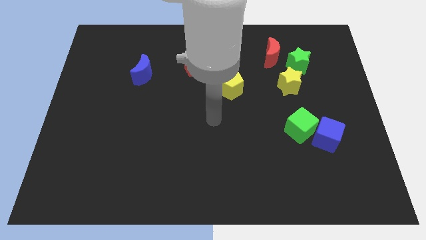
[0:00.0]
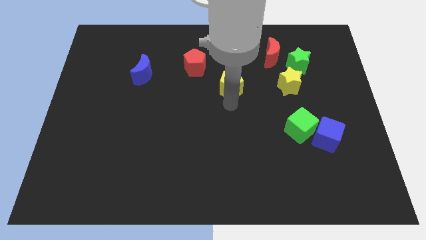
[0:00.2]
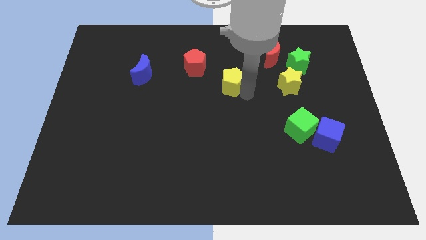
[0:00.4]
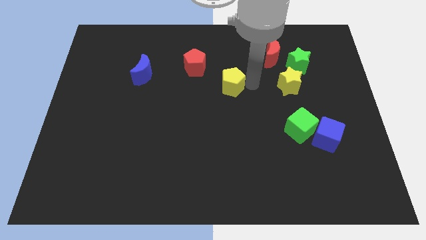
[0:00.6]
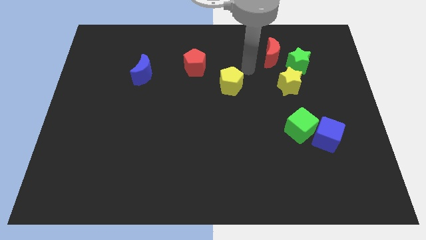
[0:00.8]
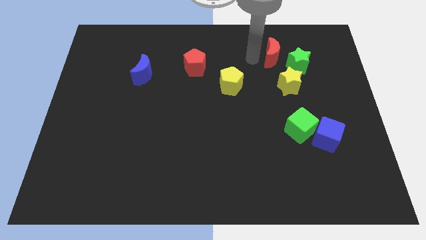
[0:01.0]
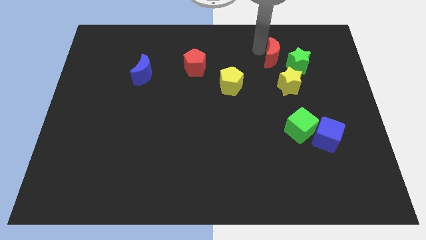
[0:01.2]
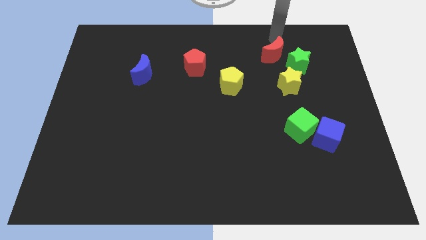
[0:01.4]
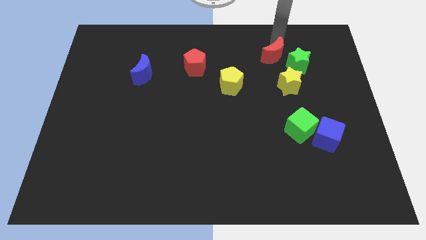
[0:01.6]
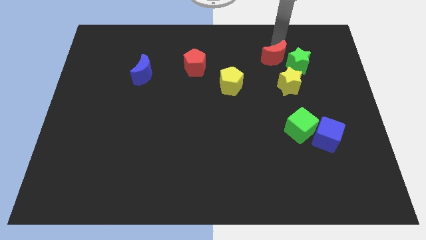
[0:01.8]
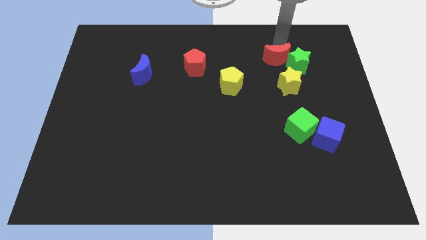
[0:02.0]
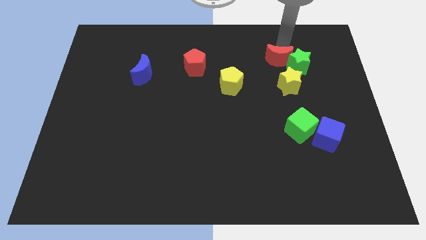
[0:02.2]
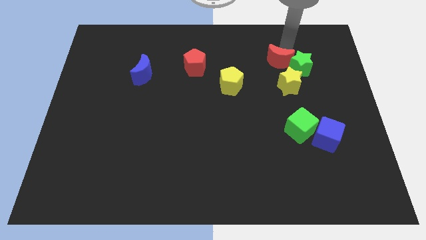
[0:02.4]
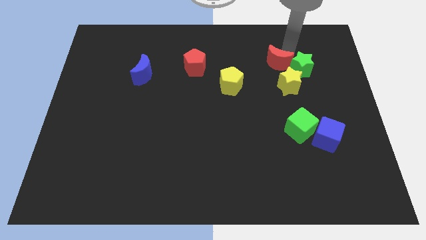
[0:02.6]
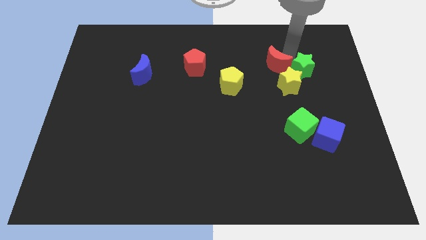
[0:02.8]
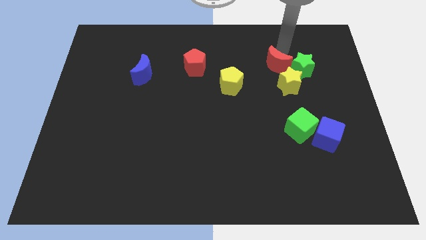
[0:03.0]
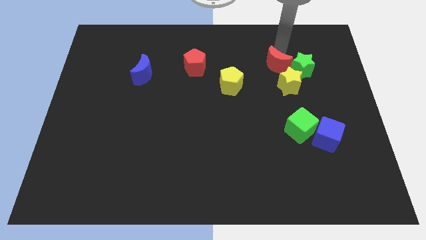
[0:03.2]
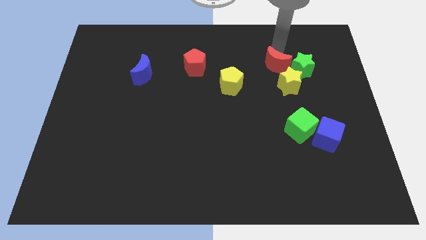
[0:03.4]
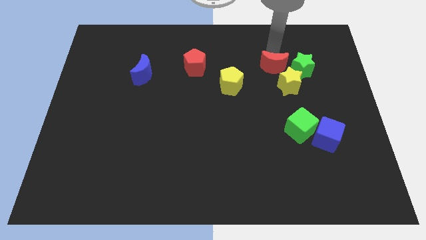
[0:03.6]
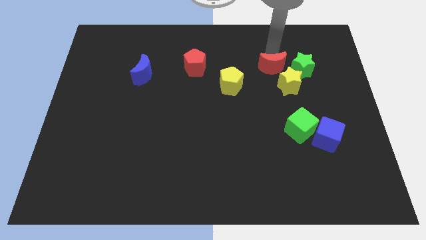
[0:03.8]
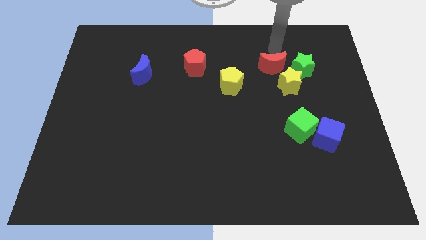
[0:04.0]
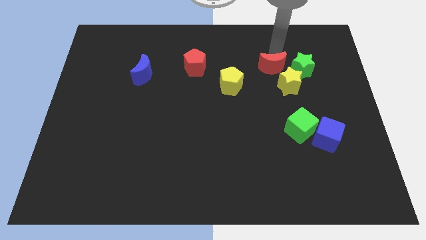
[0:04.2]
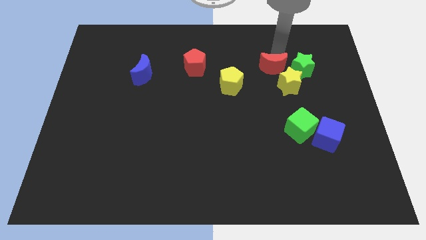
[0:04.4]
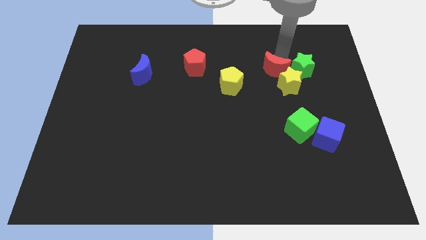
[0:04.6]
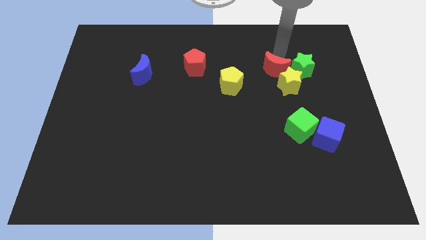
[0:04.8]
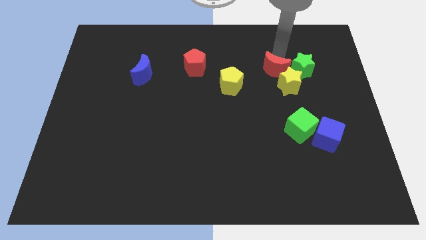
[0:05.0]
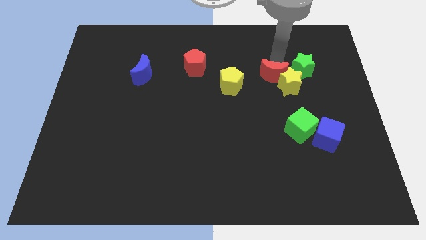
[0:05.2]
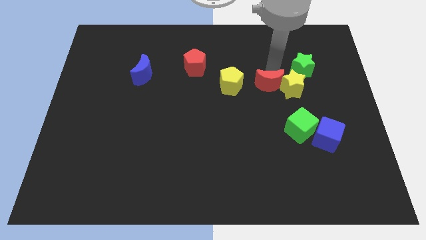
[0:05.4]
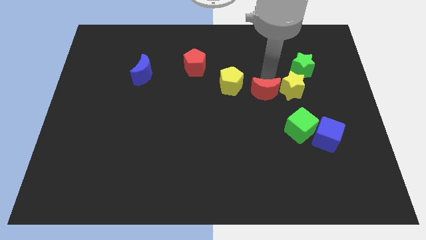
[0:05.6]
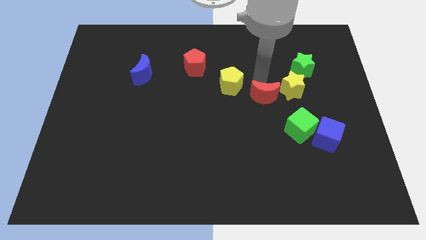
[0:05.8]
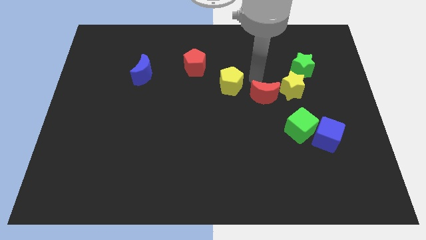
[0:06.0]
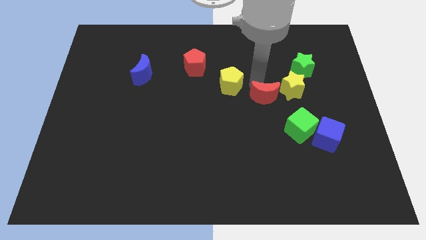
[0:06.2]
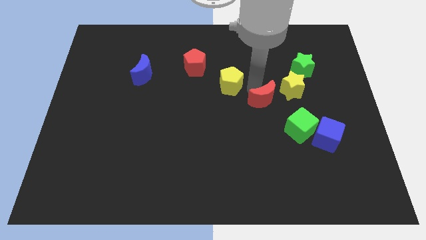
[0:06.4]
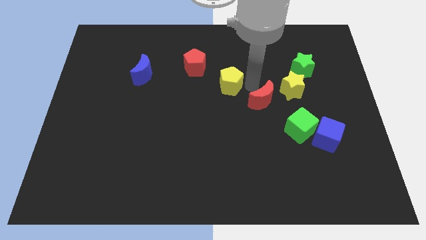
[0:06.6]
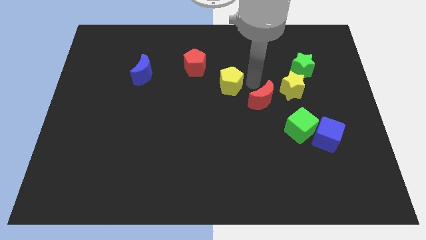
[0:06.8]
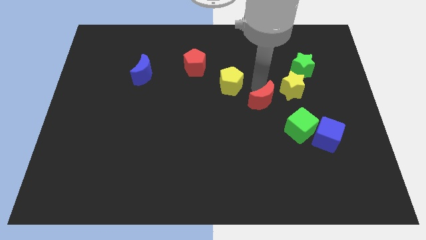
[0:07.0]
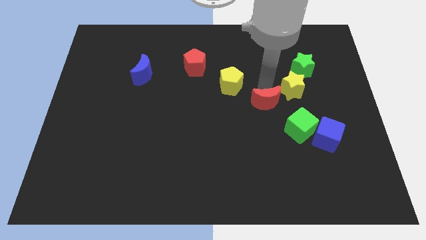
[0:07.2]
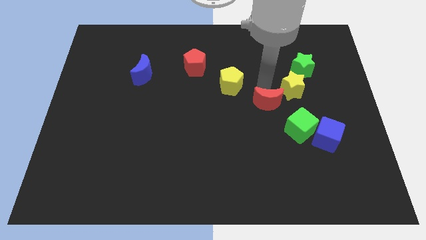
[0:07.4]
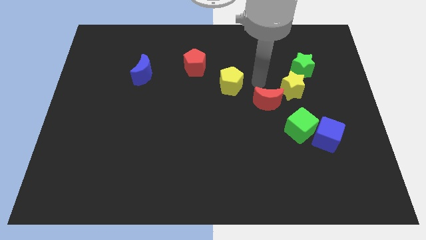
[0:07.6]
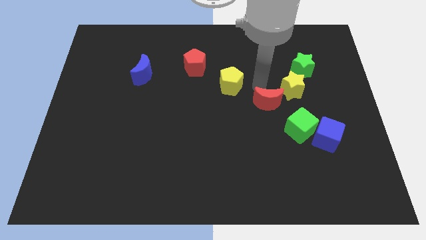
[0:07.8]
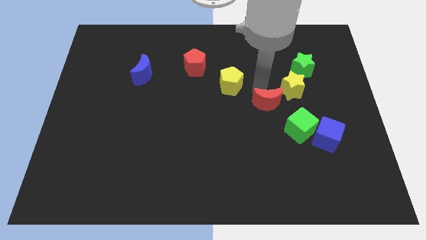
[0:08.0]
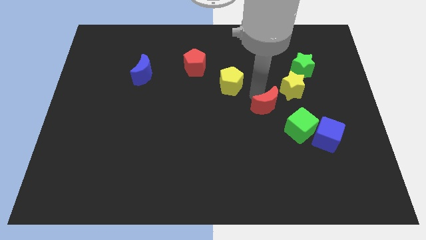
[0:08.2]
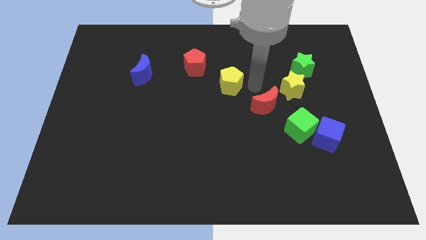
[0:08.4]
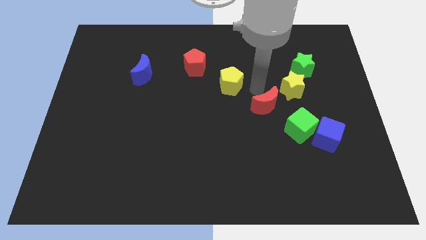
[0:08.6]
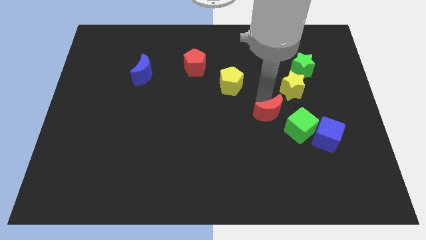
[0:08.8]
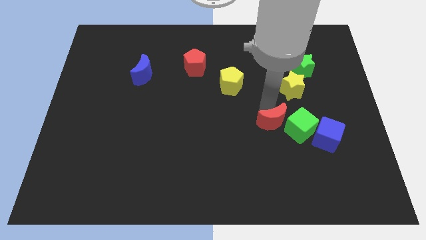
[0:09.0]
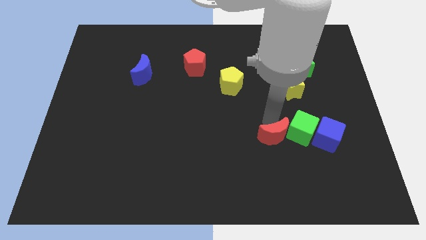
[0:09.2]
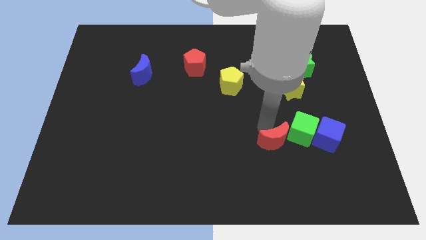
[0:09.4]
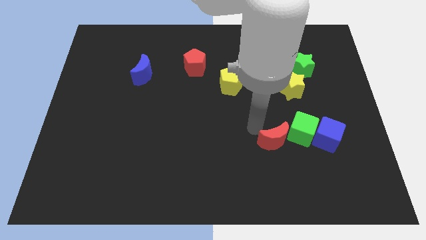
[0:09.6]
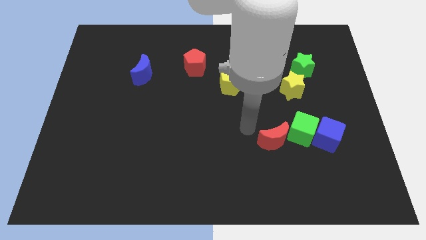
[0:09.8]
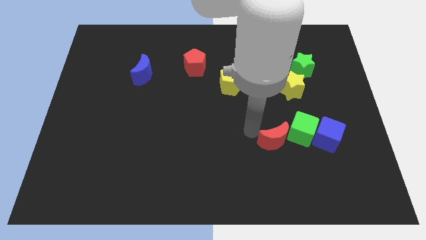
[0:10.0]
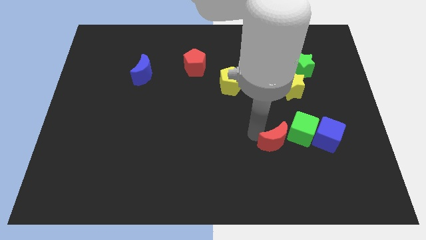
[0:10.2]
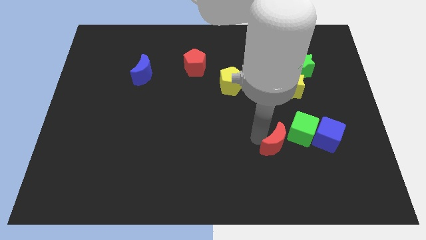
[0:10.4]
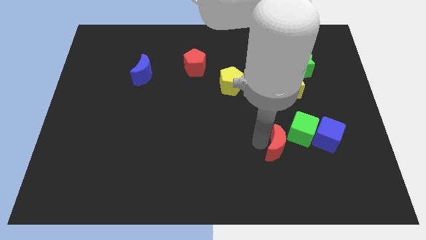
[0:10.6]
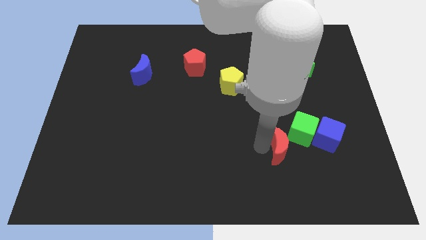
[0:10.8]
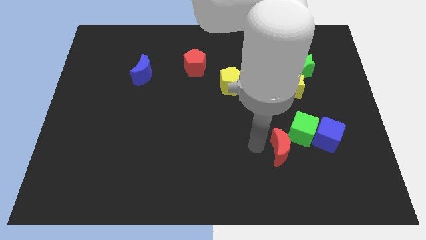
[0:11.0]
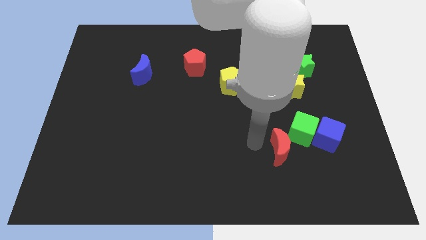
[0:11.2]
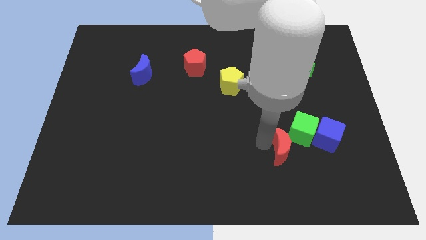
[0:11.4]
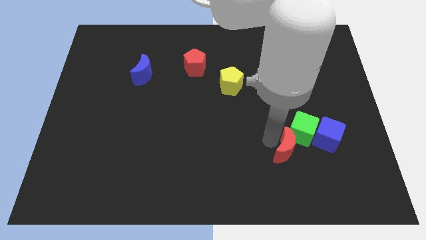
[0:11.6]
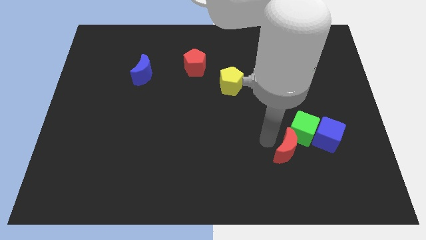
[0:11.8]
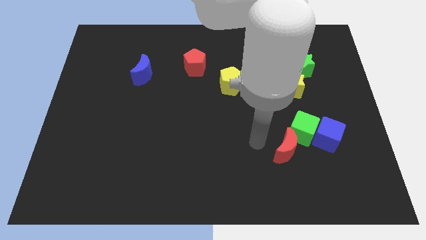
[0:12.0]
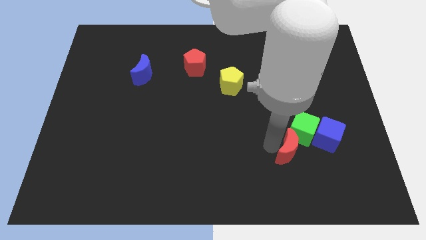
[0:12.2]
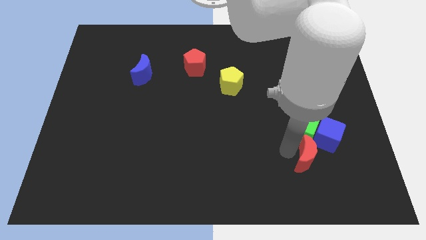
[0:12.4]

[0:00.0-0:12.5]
move the red moon to the bottom right of the green cube

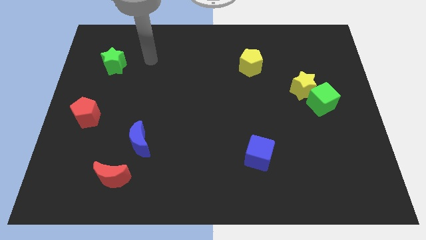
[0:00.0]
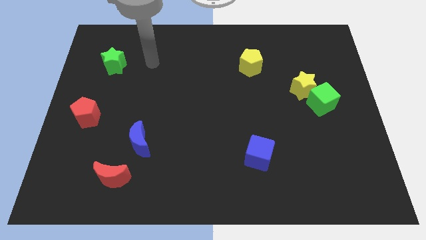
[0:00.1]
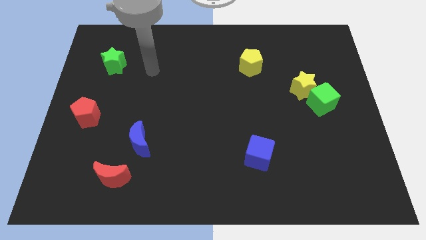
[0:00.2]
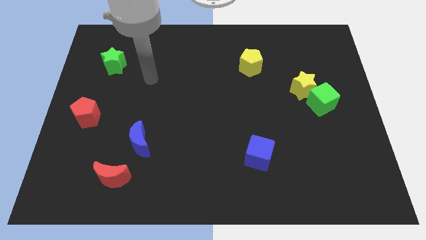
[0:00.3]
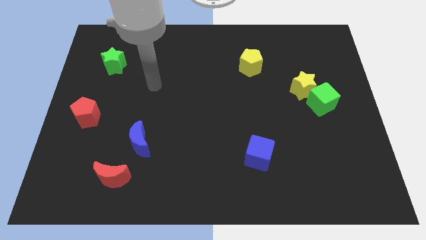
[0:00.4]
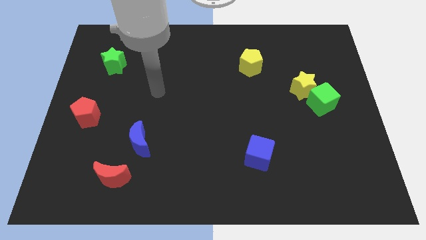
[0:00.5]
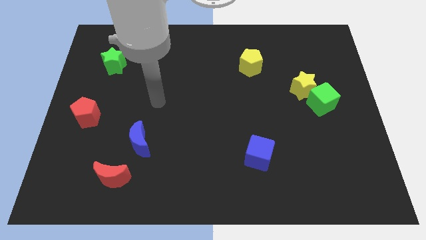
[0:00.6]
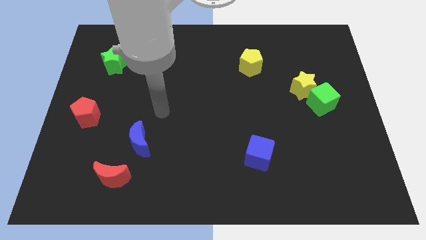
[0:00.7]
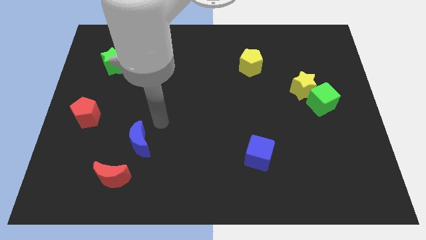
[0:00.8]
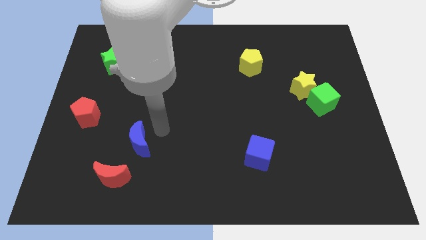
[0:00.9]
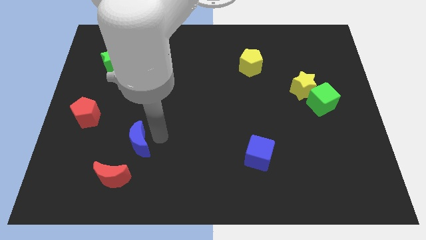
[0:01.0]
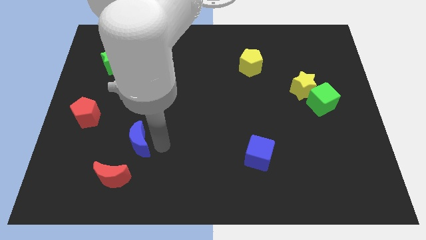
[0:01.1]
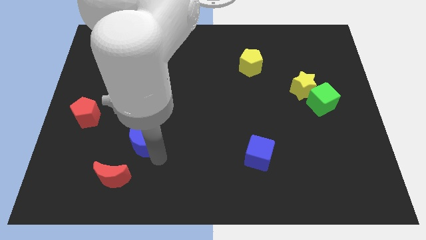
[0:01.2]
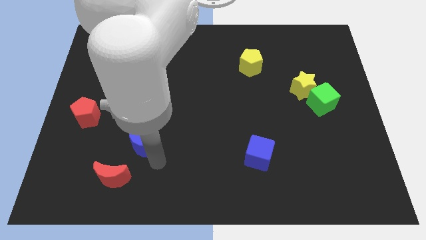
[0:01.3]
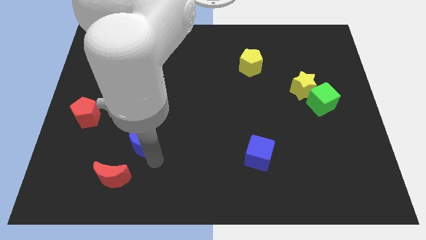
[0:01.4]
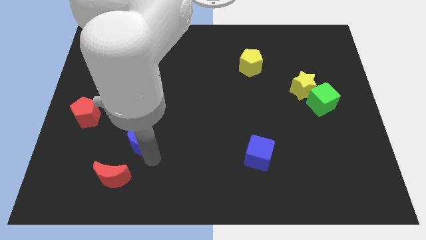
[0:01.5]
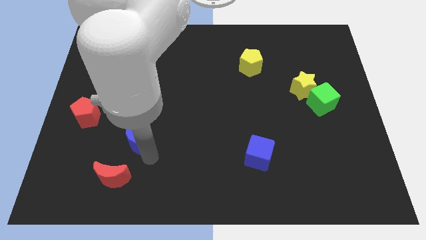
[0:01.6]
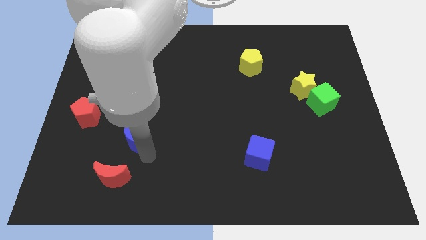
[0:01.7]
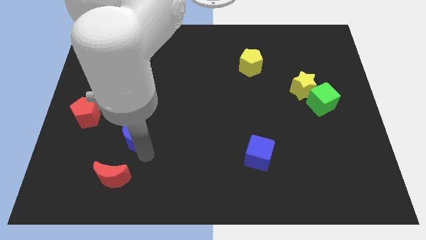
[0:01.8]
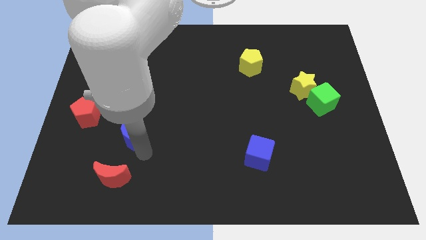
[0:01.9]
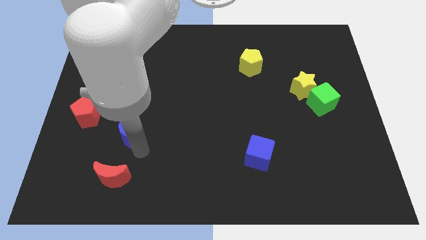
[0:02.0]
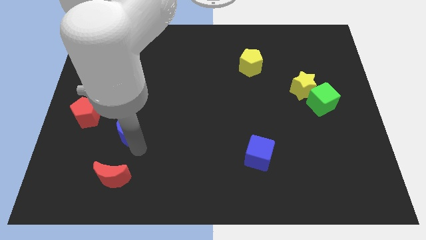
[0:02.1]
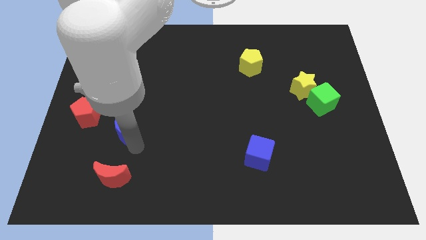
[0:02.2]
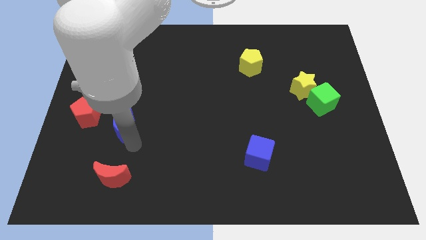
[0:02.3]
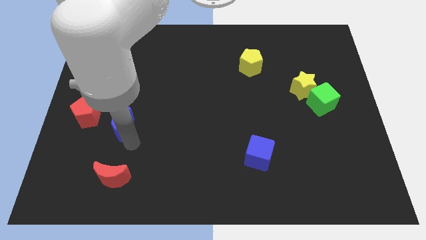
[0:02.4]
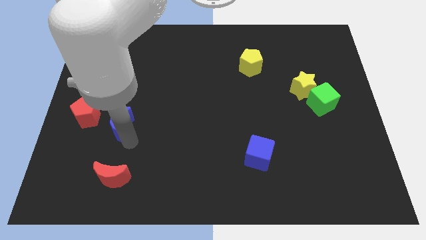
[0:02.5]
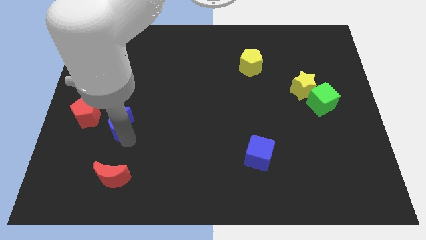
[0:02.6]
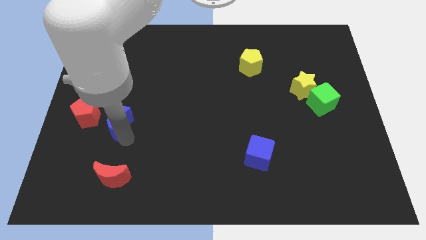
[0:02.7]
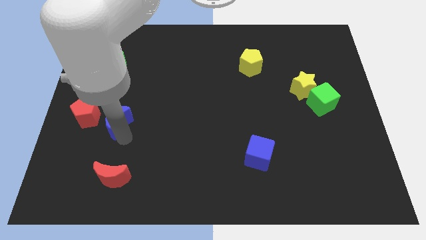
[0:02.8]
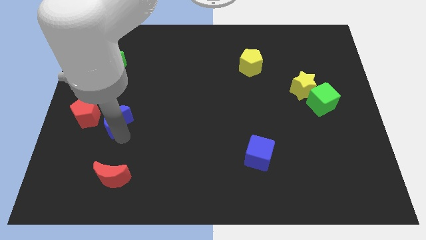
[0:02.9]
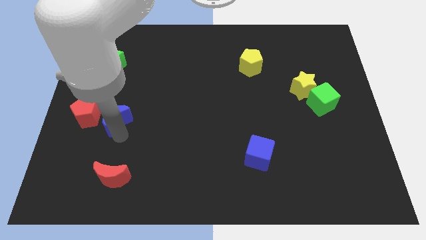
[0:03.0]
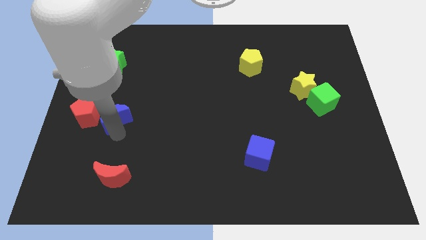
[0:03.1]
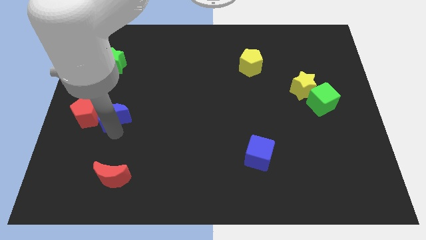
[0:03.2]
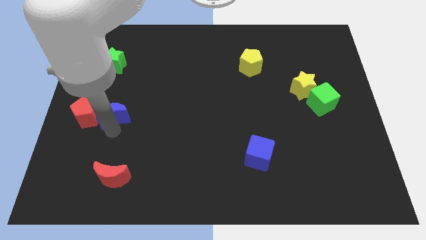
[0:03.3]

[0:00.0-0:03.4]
push the blue moon to the top right of the red pentagon
